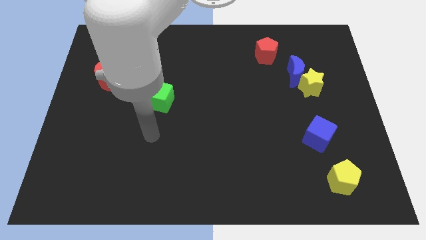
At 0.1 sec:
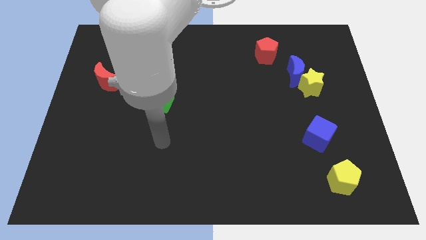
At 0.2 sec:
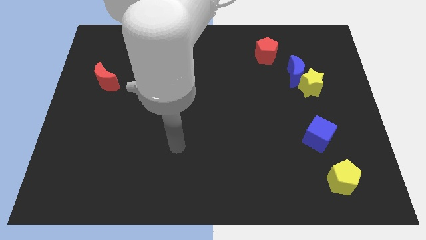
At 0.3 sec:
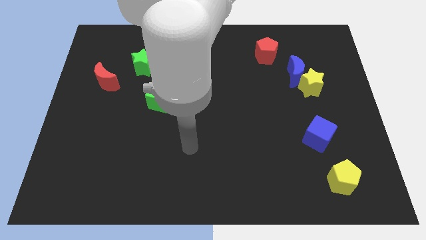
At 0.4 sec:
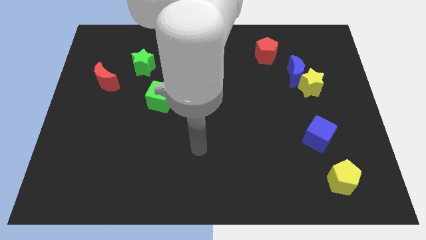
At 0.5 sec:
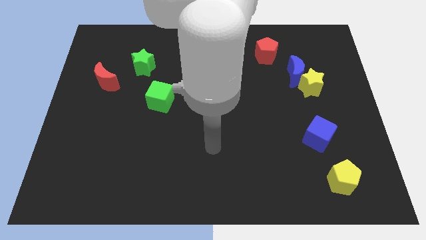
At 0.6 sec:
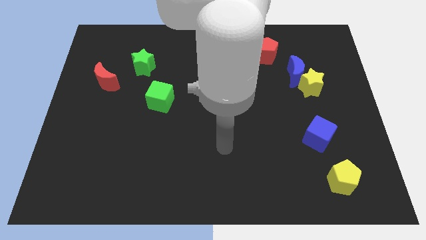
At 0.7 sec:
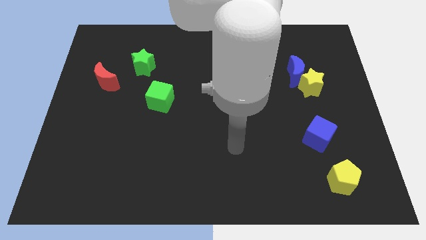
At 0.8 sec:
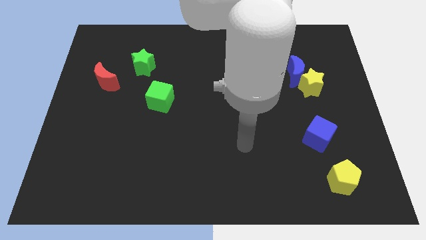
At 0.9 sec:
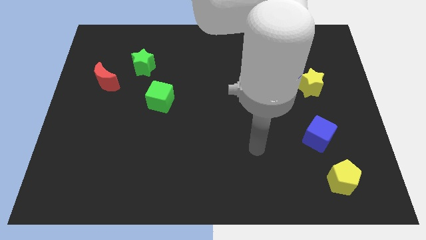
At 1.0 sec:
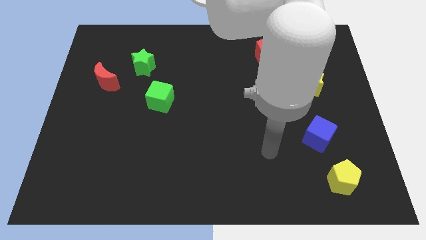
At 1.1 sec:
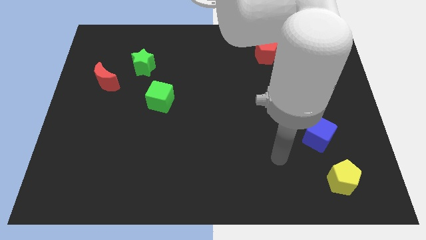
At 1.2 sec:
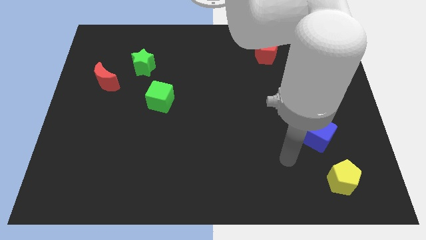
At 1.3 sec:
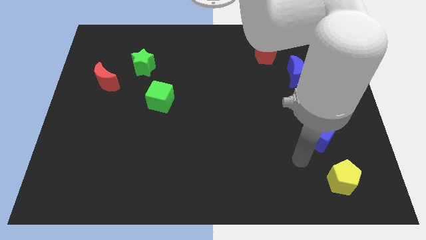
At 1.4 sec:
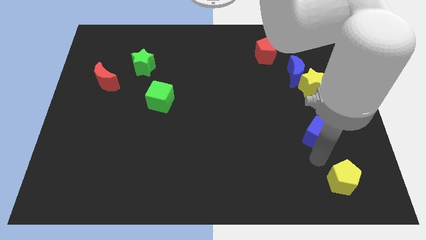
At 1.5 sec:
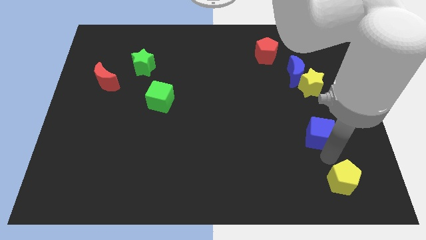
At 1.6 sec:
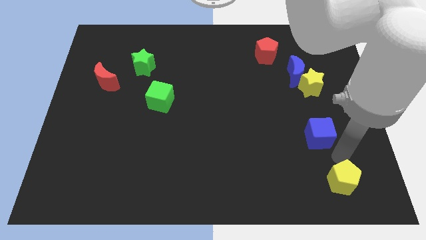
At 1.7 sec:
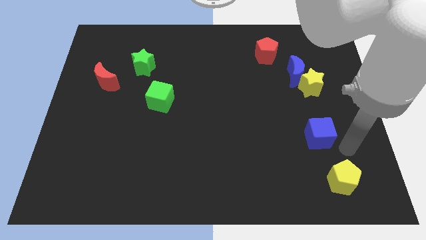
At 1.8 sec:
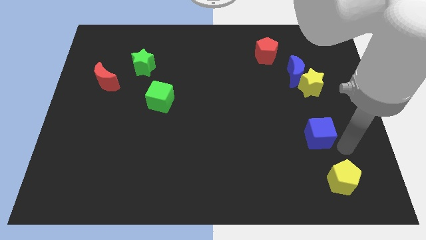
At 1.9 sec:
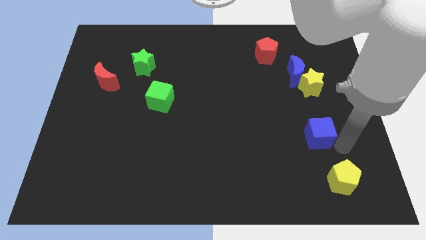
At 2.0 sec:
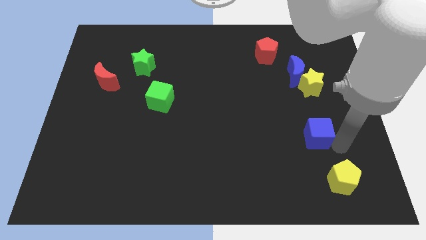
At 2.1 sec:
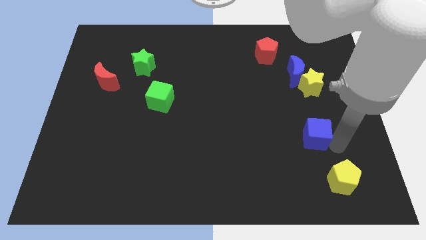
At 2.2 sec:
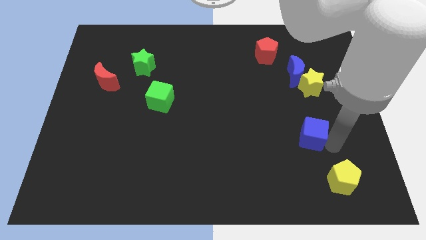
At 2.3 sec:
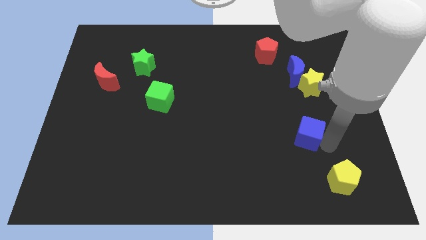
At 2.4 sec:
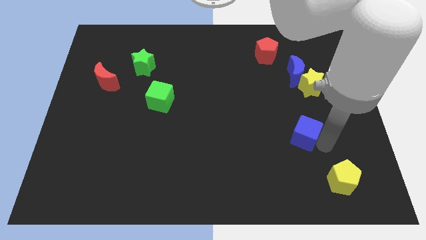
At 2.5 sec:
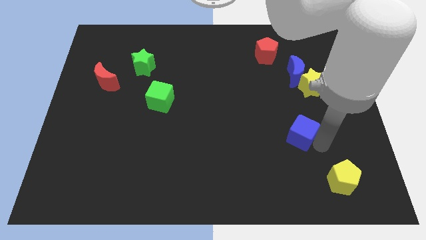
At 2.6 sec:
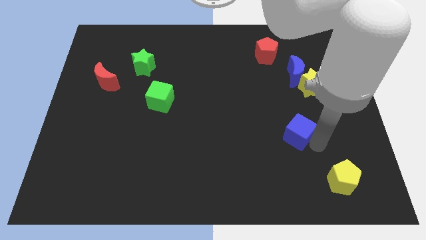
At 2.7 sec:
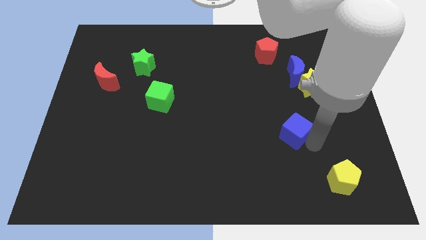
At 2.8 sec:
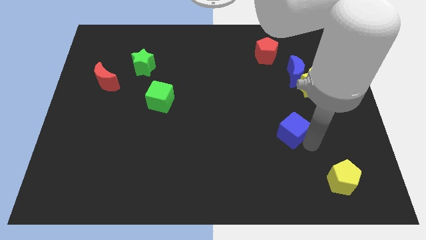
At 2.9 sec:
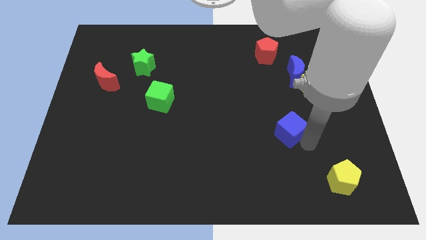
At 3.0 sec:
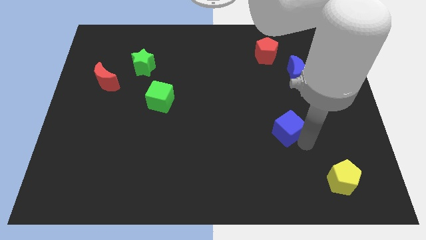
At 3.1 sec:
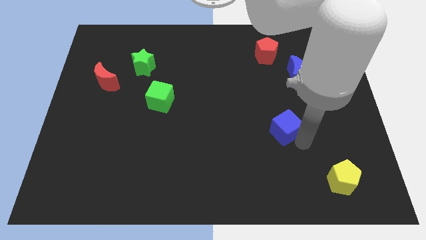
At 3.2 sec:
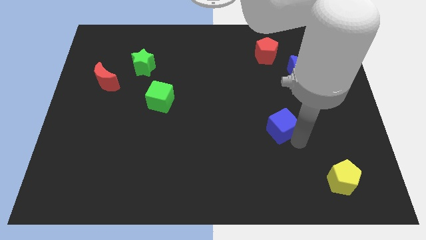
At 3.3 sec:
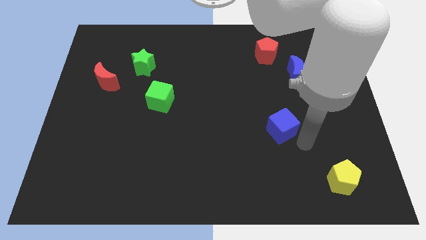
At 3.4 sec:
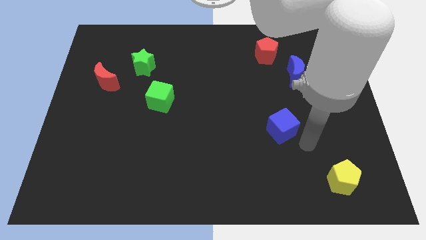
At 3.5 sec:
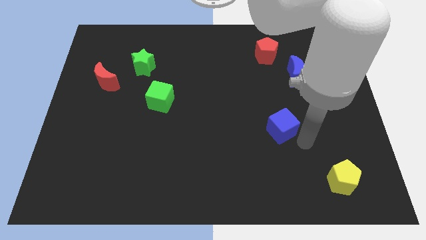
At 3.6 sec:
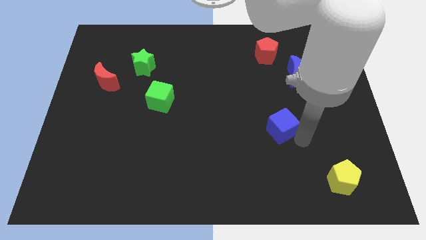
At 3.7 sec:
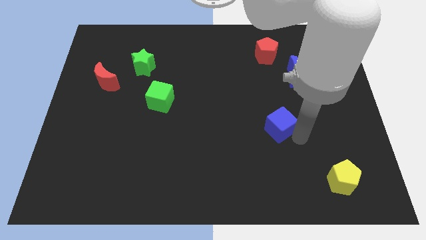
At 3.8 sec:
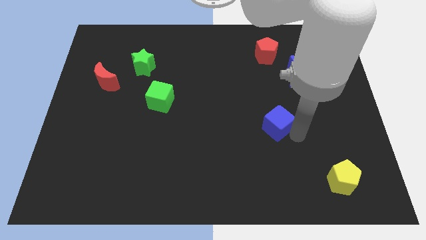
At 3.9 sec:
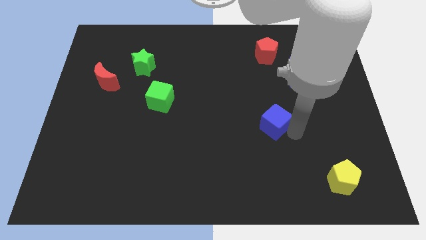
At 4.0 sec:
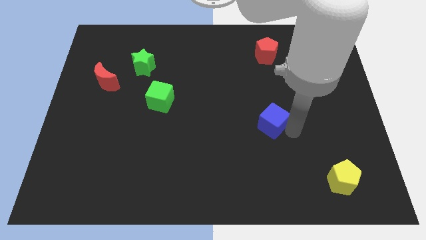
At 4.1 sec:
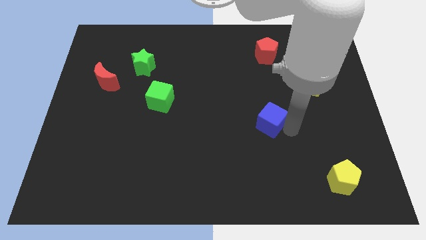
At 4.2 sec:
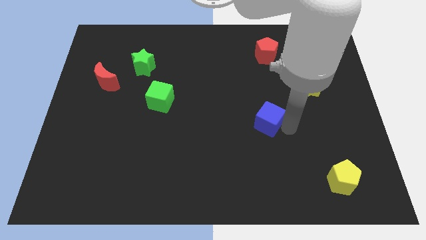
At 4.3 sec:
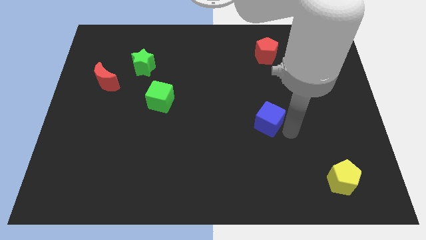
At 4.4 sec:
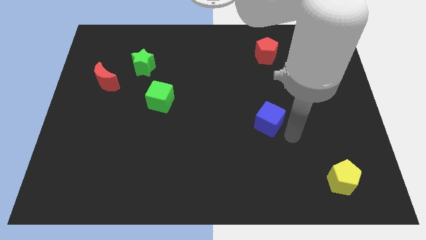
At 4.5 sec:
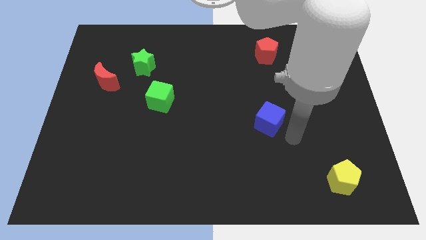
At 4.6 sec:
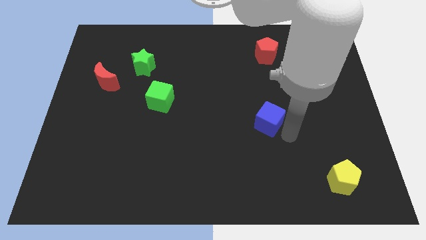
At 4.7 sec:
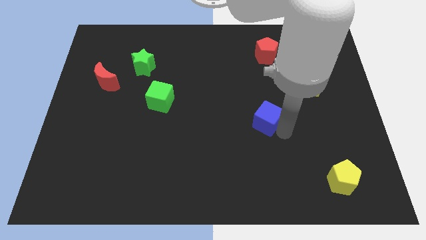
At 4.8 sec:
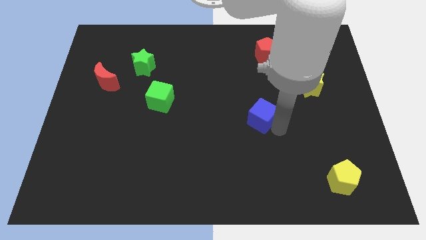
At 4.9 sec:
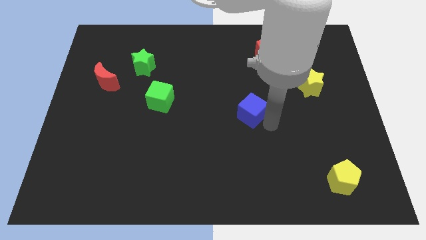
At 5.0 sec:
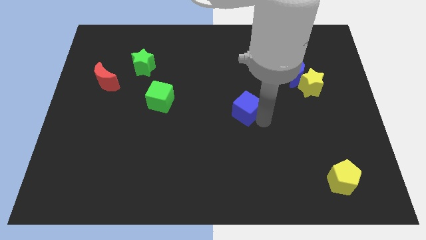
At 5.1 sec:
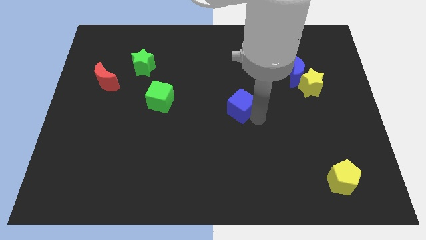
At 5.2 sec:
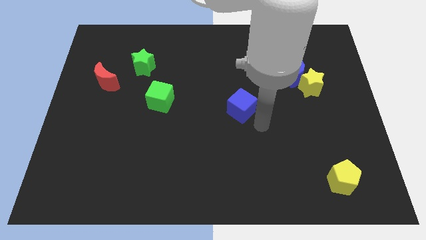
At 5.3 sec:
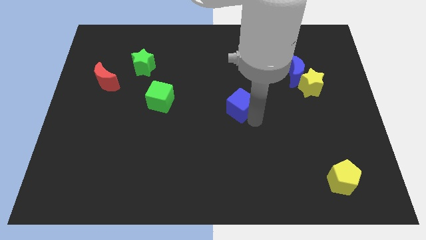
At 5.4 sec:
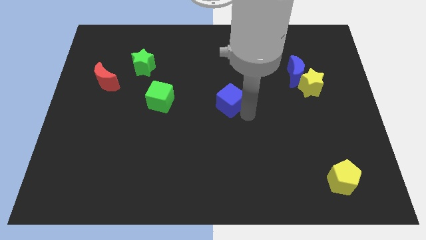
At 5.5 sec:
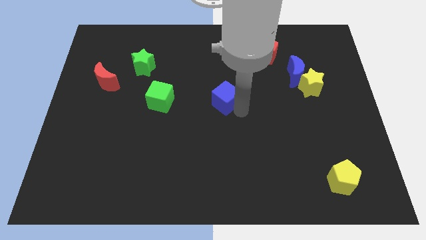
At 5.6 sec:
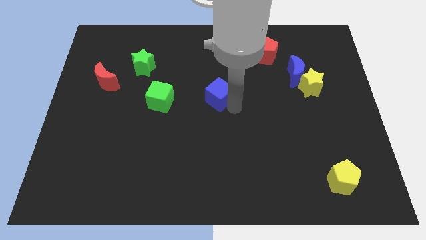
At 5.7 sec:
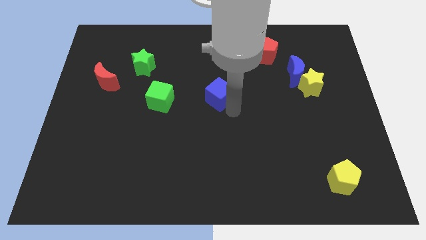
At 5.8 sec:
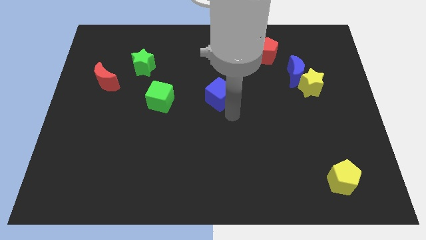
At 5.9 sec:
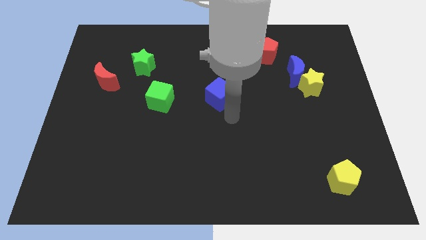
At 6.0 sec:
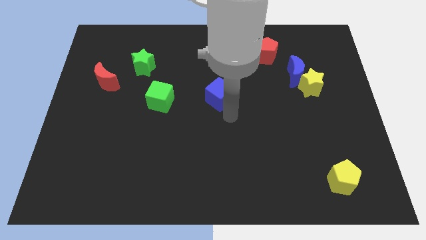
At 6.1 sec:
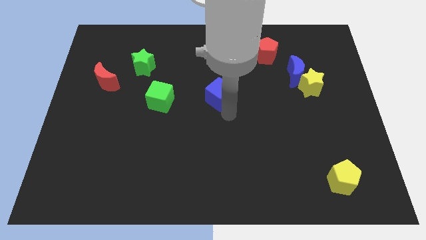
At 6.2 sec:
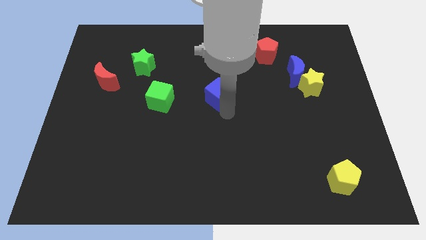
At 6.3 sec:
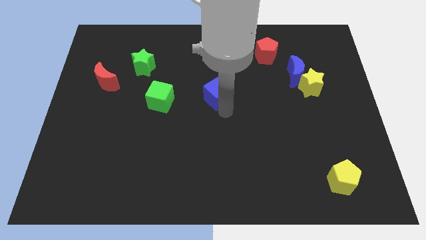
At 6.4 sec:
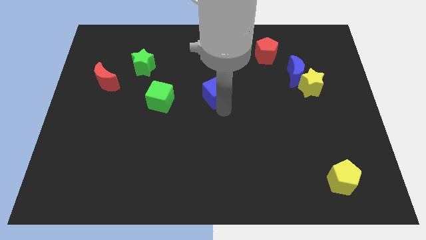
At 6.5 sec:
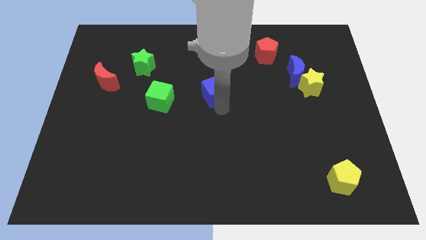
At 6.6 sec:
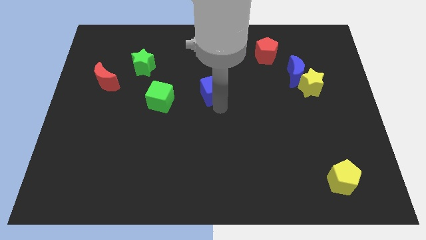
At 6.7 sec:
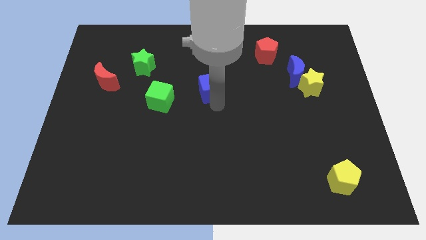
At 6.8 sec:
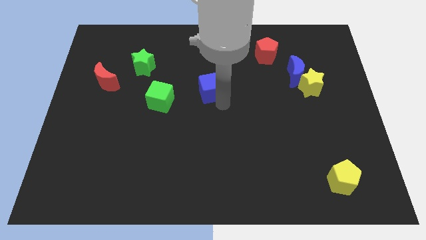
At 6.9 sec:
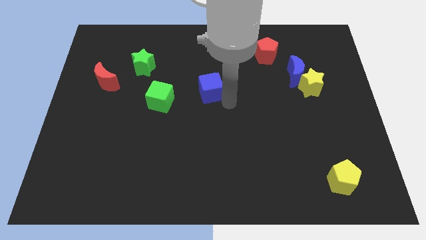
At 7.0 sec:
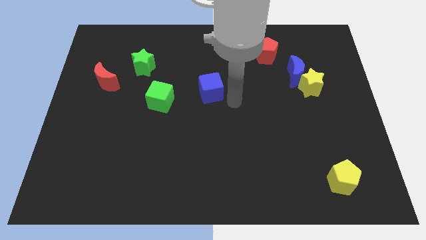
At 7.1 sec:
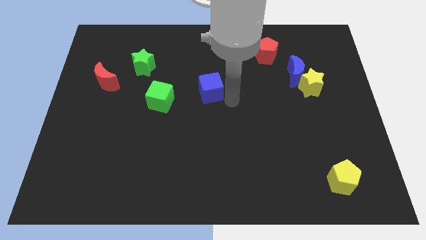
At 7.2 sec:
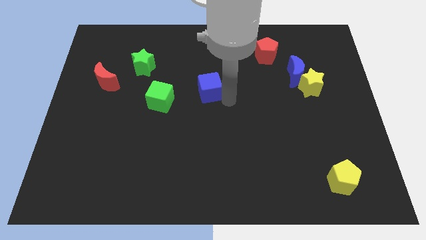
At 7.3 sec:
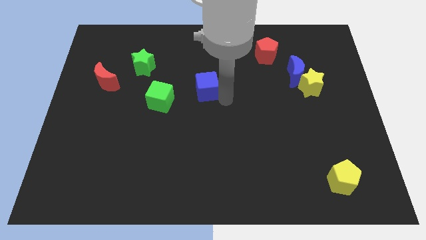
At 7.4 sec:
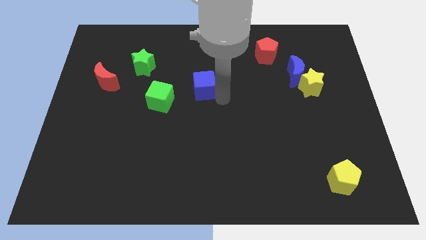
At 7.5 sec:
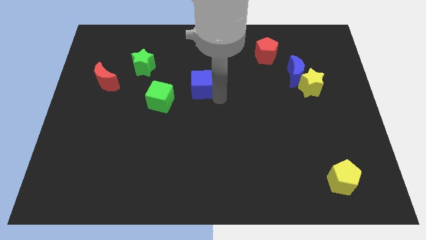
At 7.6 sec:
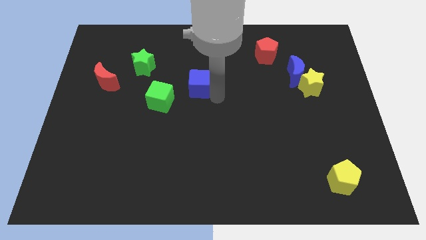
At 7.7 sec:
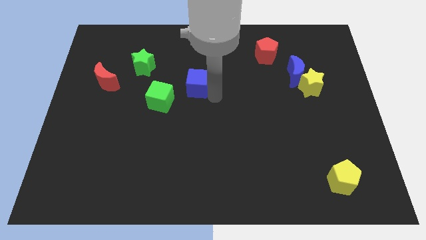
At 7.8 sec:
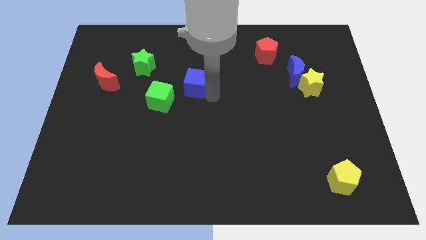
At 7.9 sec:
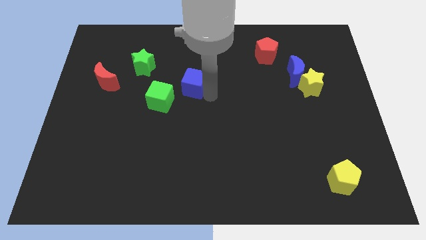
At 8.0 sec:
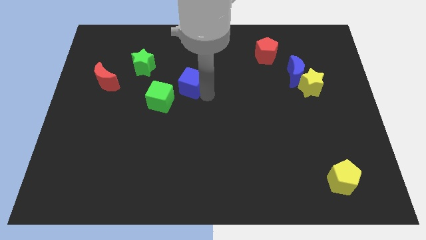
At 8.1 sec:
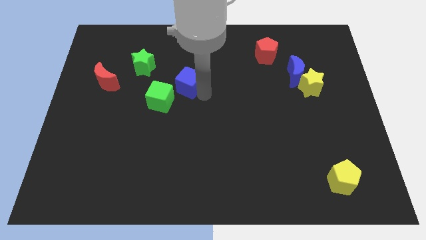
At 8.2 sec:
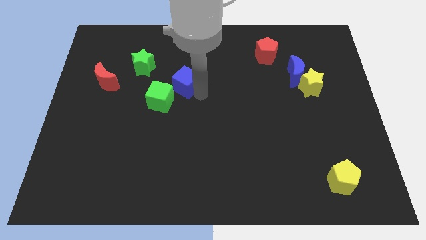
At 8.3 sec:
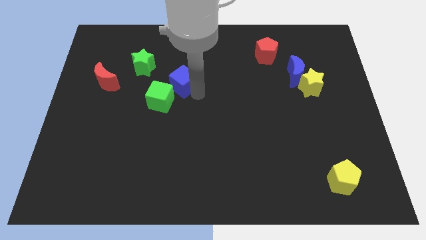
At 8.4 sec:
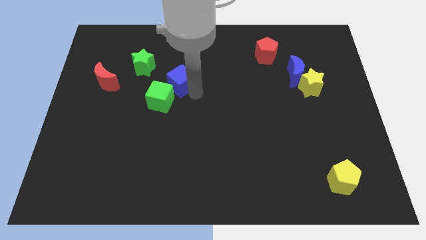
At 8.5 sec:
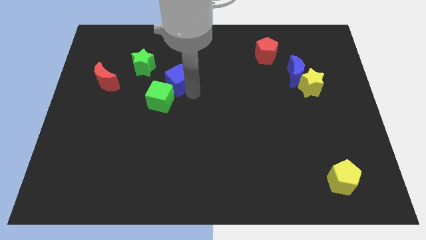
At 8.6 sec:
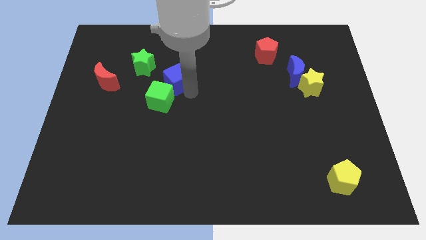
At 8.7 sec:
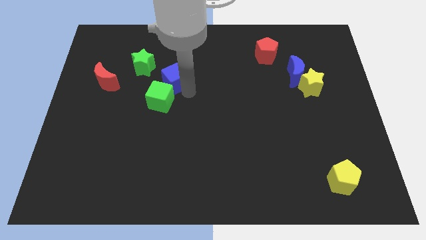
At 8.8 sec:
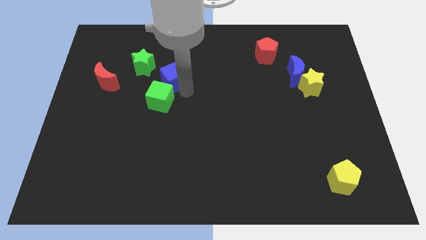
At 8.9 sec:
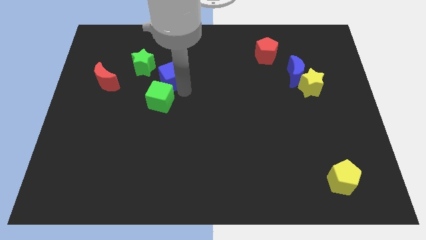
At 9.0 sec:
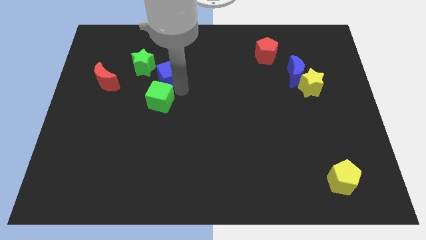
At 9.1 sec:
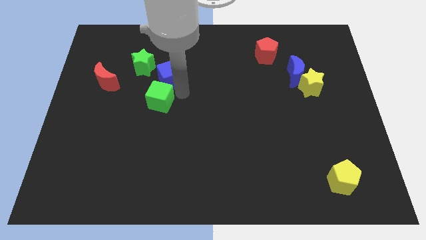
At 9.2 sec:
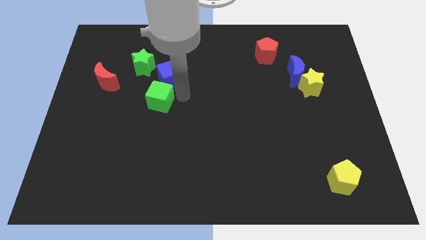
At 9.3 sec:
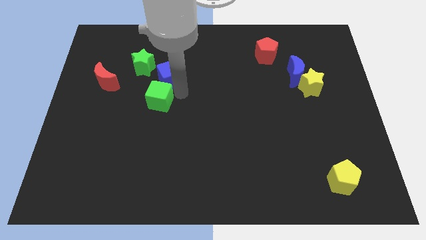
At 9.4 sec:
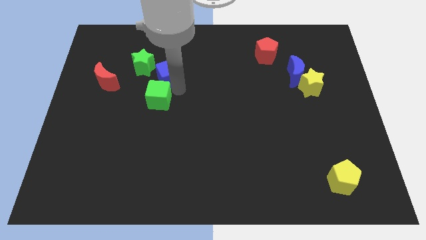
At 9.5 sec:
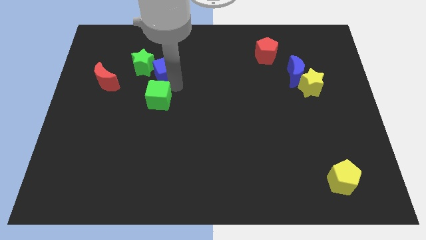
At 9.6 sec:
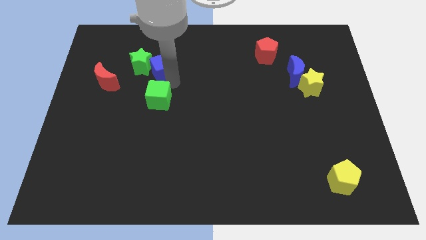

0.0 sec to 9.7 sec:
push the blue cube close to the green star
